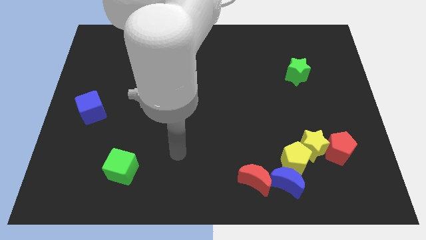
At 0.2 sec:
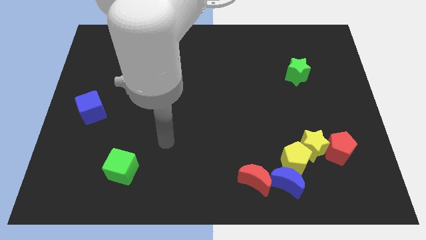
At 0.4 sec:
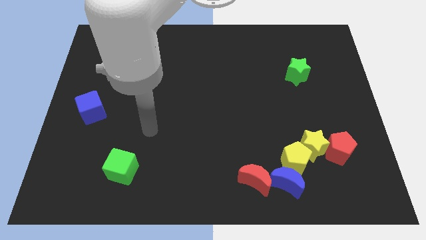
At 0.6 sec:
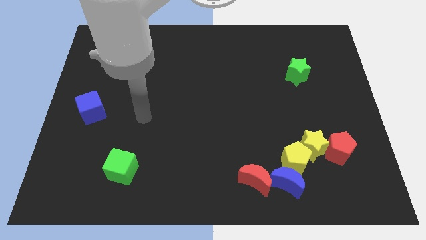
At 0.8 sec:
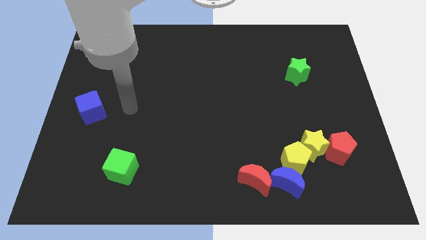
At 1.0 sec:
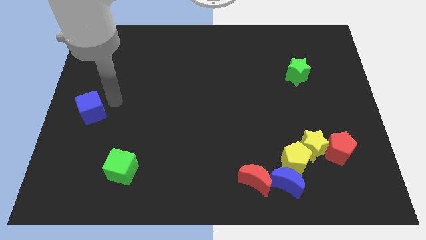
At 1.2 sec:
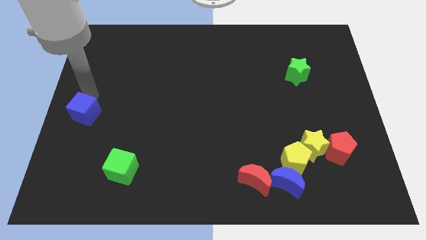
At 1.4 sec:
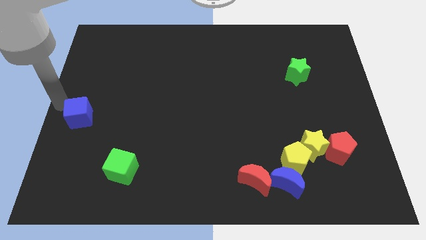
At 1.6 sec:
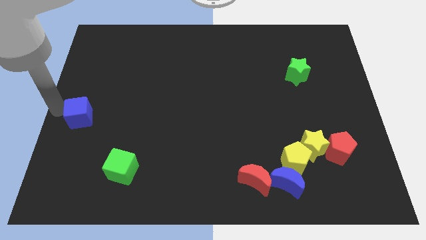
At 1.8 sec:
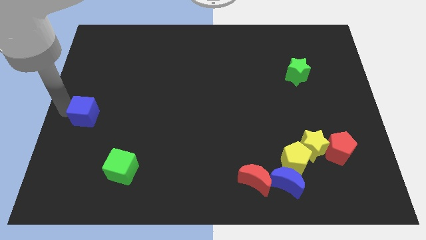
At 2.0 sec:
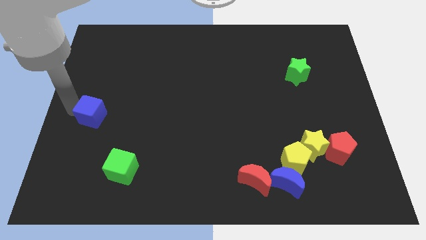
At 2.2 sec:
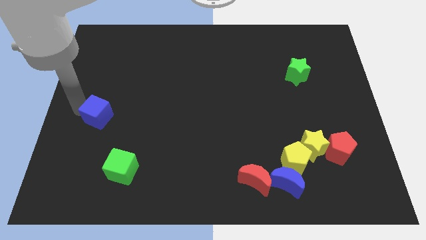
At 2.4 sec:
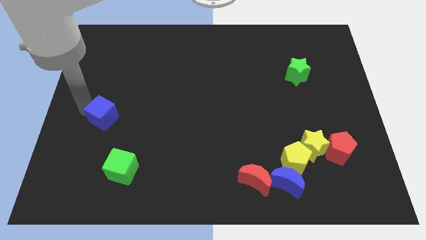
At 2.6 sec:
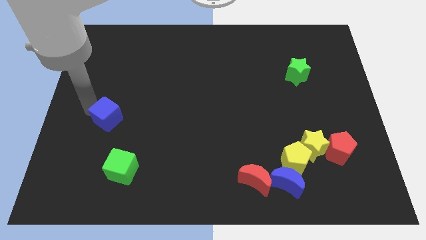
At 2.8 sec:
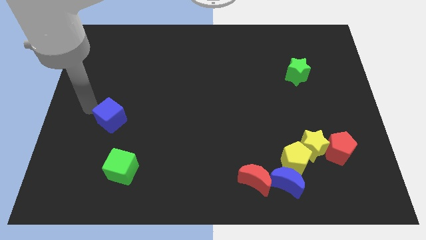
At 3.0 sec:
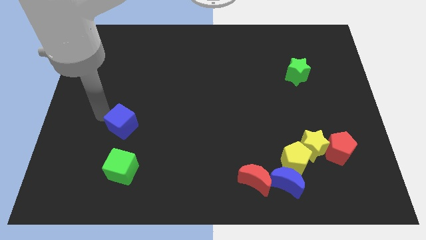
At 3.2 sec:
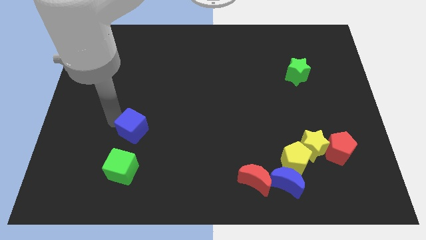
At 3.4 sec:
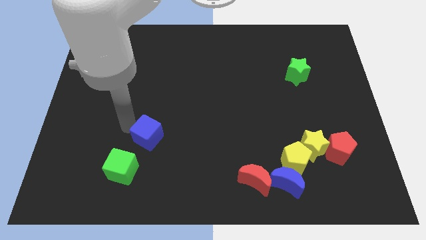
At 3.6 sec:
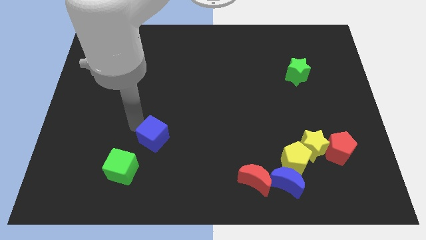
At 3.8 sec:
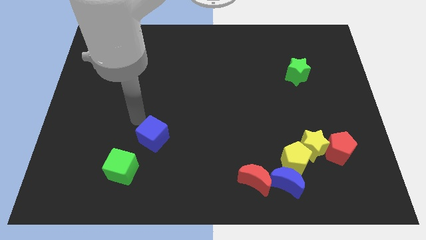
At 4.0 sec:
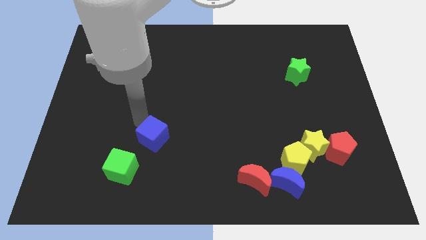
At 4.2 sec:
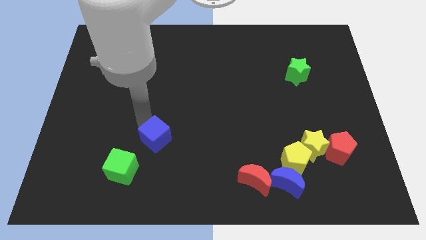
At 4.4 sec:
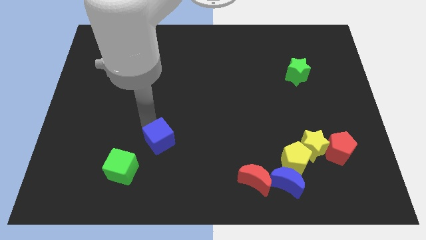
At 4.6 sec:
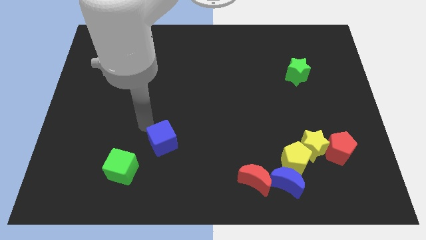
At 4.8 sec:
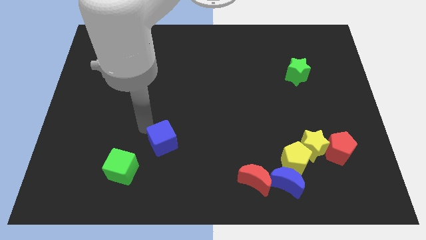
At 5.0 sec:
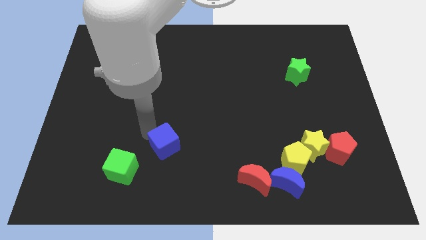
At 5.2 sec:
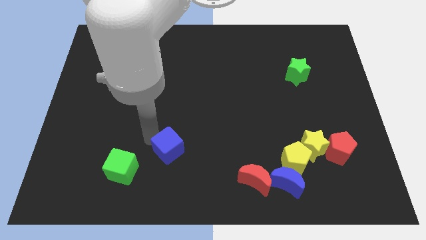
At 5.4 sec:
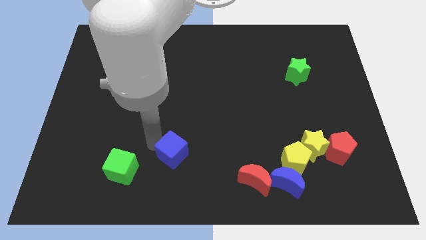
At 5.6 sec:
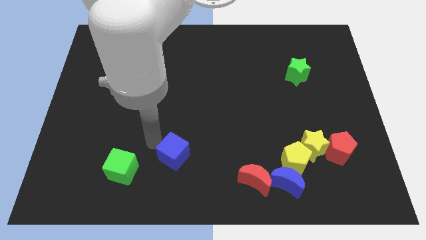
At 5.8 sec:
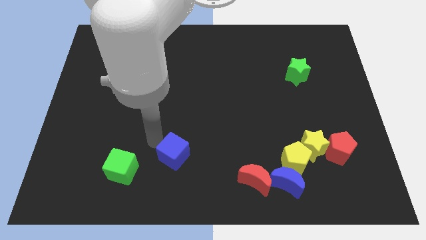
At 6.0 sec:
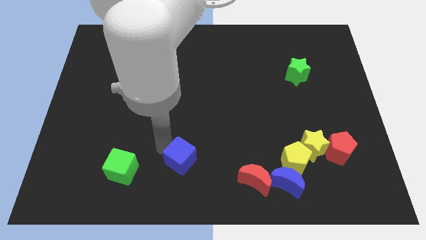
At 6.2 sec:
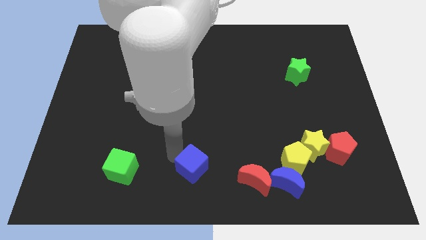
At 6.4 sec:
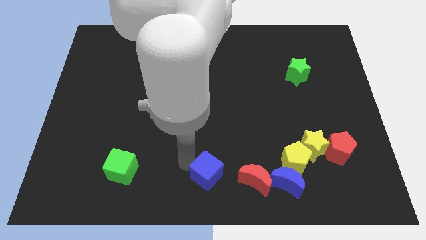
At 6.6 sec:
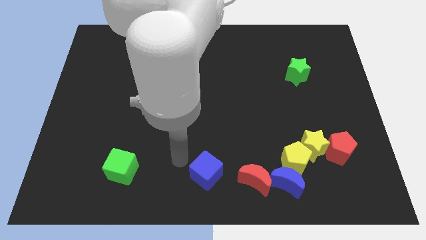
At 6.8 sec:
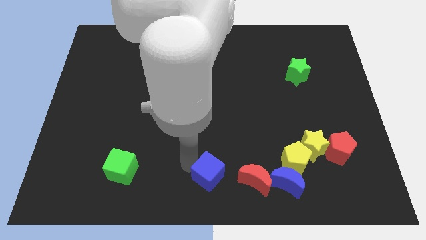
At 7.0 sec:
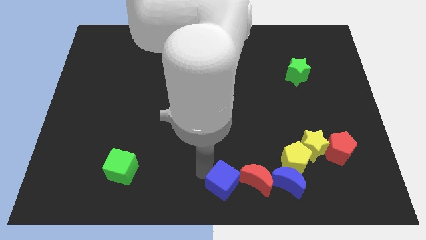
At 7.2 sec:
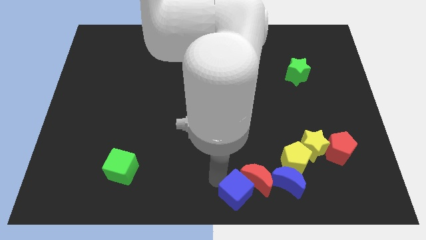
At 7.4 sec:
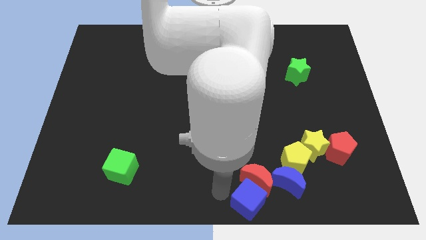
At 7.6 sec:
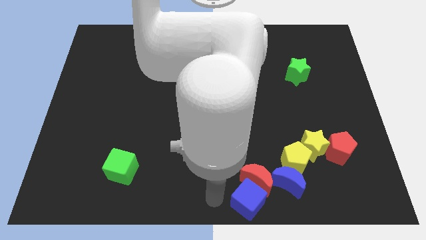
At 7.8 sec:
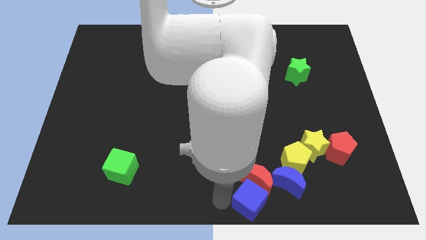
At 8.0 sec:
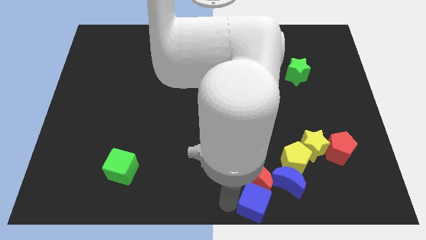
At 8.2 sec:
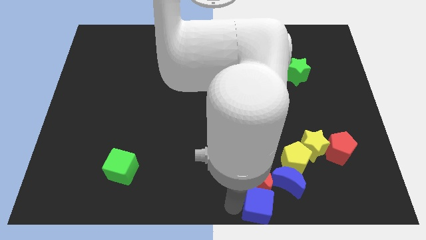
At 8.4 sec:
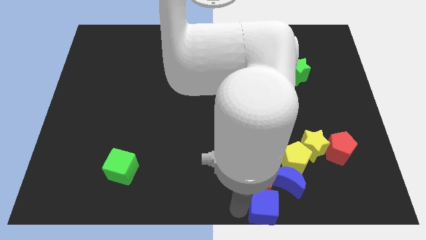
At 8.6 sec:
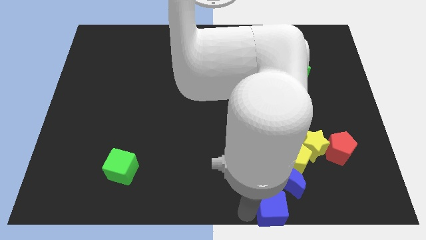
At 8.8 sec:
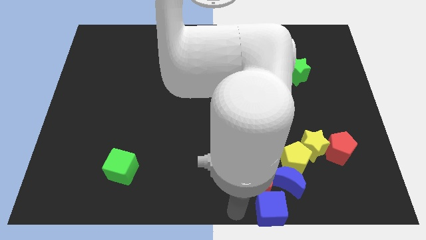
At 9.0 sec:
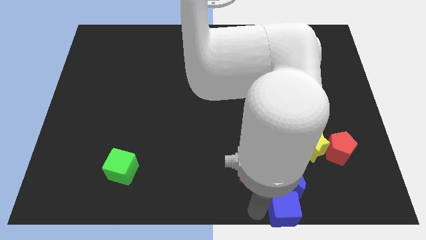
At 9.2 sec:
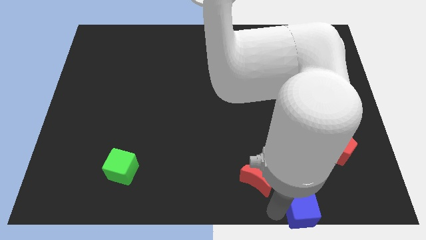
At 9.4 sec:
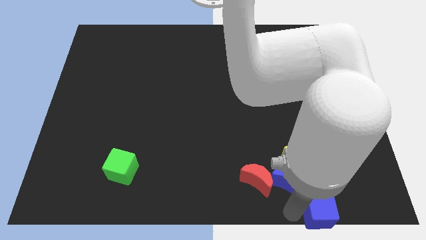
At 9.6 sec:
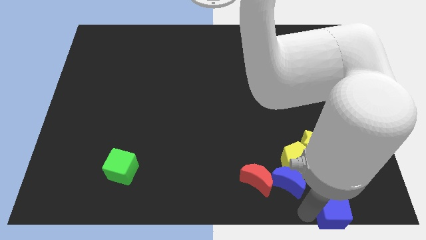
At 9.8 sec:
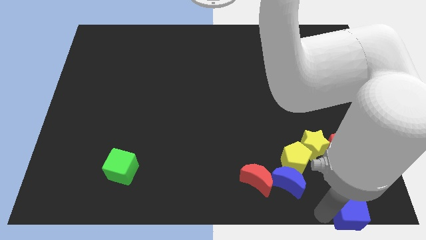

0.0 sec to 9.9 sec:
slide the blue cube to the bottom right

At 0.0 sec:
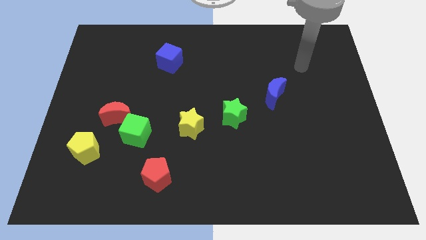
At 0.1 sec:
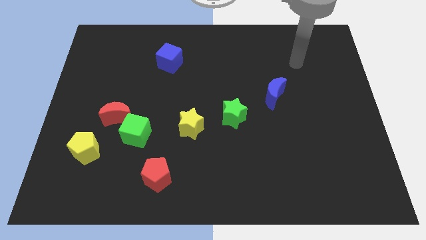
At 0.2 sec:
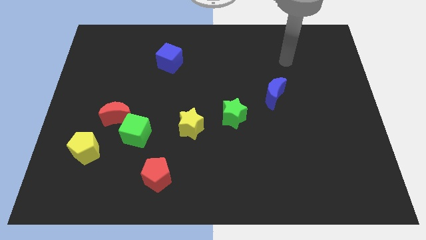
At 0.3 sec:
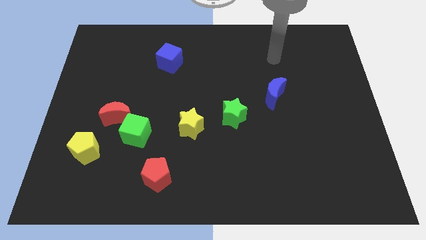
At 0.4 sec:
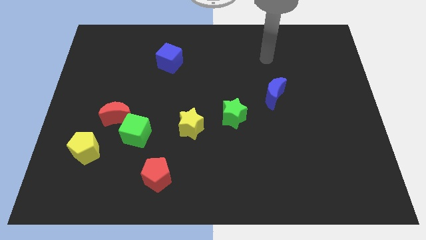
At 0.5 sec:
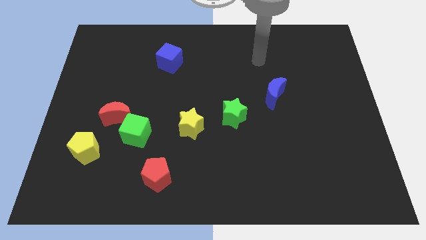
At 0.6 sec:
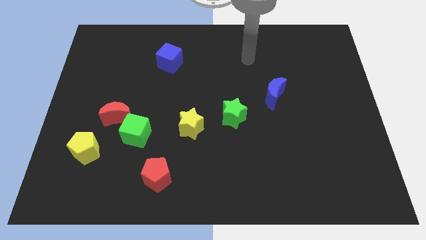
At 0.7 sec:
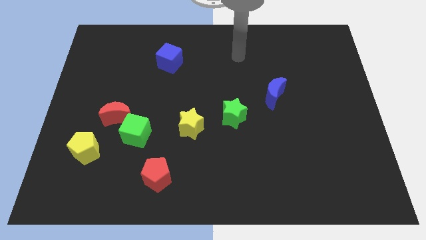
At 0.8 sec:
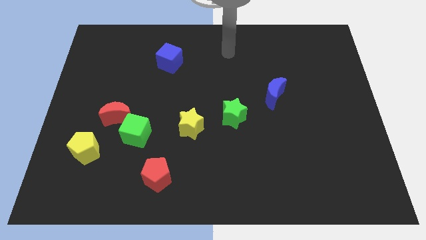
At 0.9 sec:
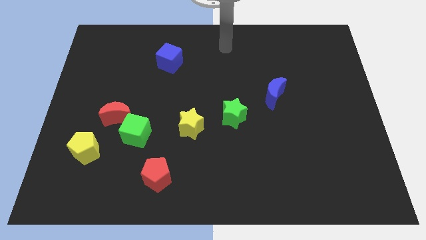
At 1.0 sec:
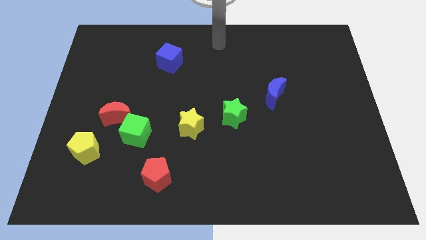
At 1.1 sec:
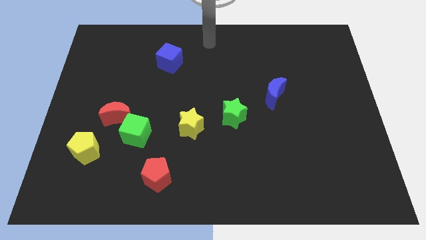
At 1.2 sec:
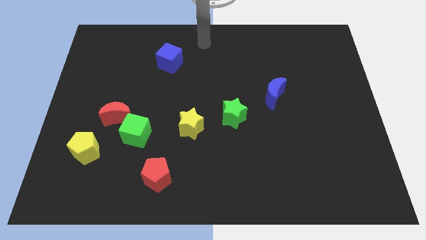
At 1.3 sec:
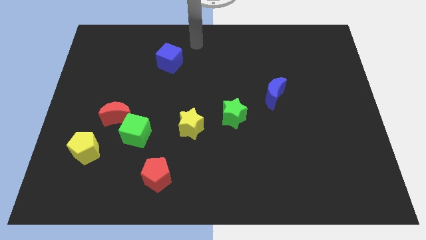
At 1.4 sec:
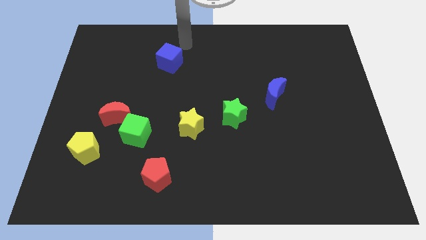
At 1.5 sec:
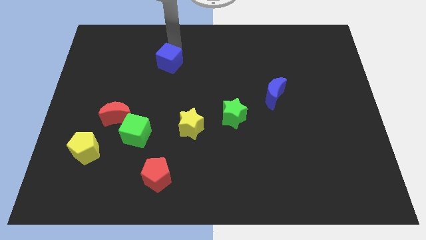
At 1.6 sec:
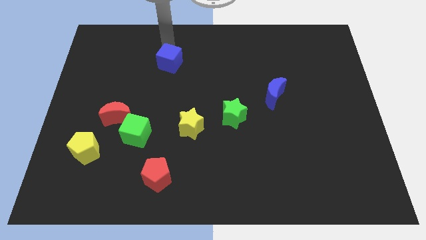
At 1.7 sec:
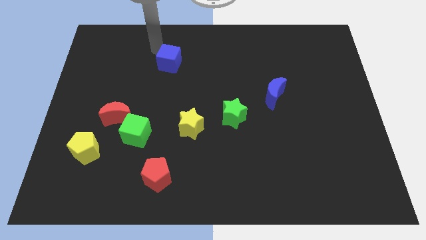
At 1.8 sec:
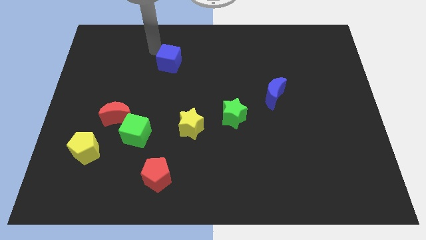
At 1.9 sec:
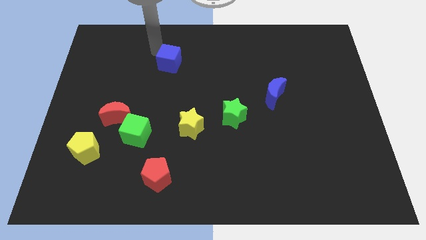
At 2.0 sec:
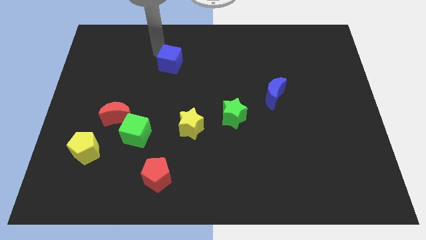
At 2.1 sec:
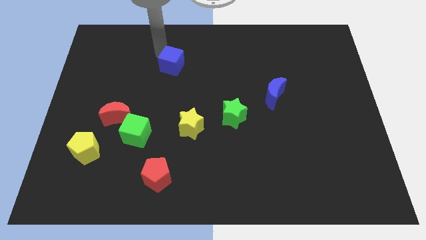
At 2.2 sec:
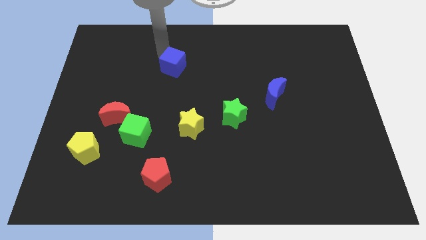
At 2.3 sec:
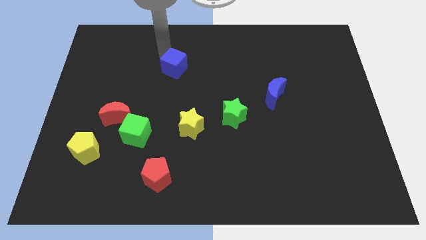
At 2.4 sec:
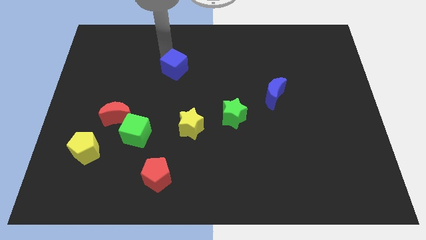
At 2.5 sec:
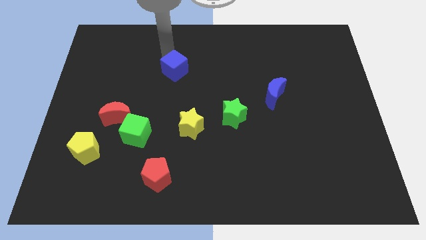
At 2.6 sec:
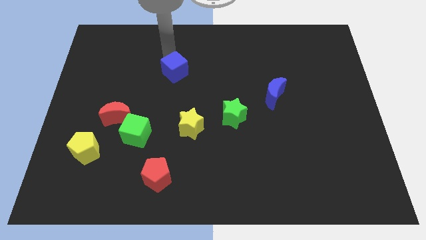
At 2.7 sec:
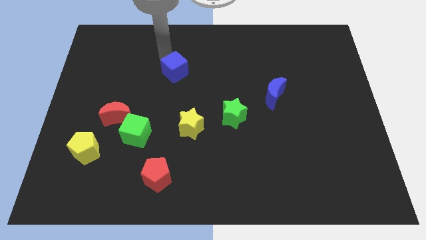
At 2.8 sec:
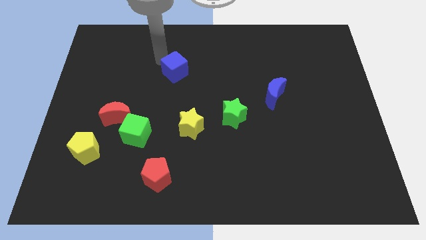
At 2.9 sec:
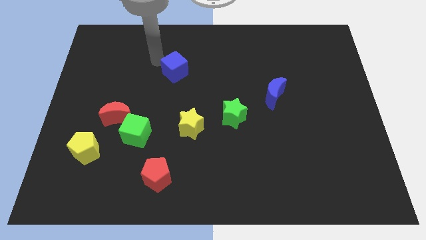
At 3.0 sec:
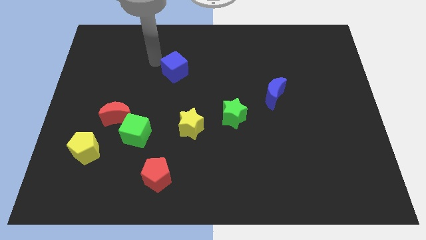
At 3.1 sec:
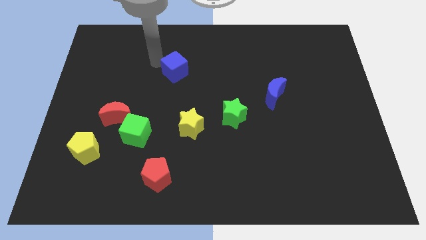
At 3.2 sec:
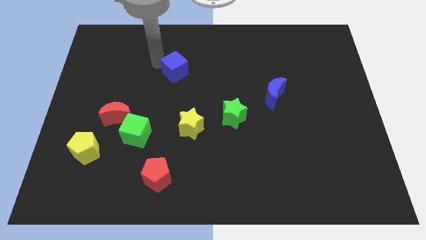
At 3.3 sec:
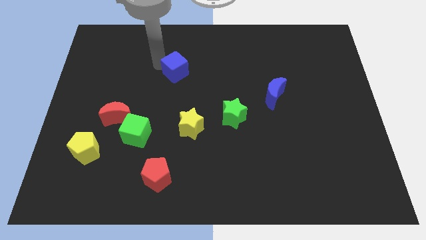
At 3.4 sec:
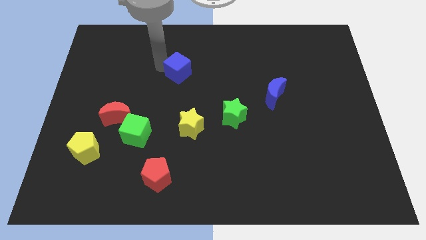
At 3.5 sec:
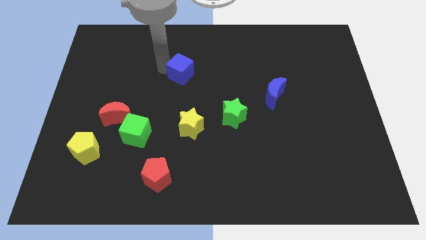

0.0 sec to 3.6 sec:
put the blue cube to the middle
